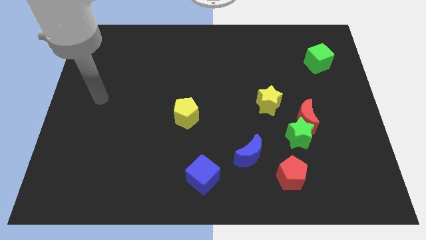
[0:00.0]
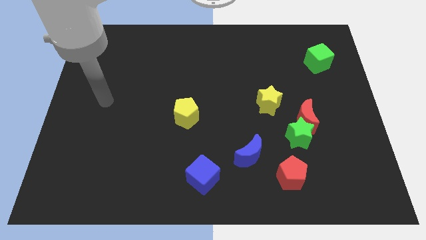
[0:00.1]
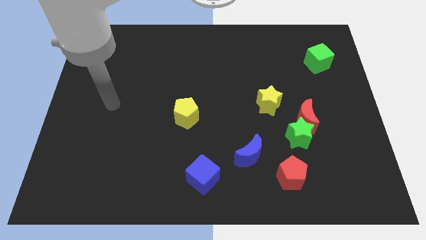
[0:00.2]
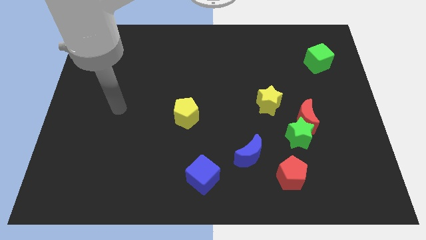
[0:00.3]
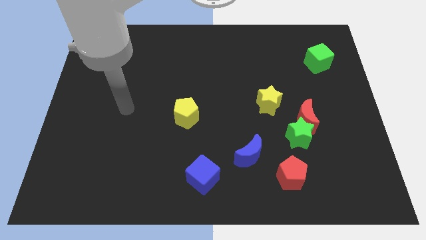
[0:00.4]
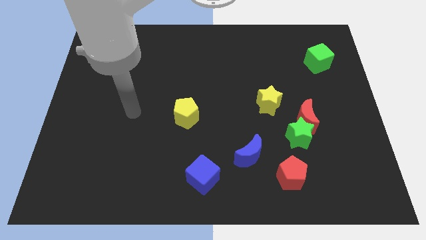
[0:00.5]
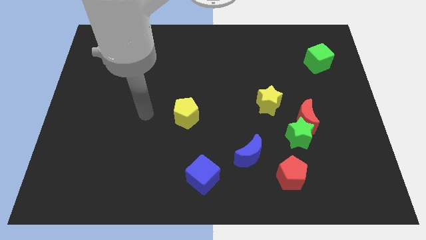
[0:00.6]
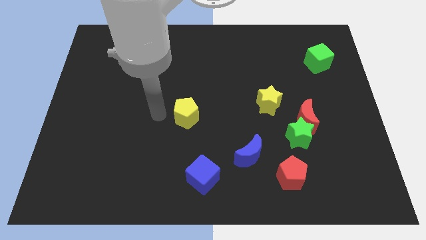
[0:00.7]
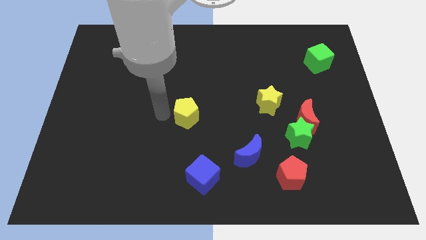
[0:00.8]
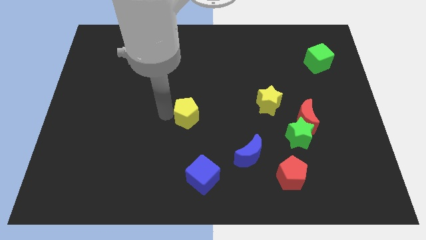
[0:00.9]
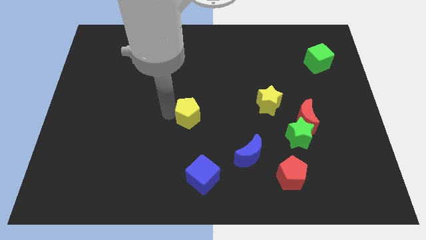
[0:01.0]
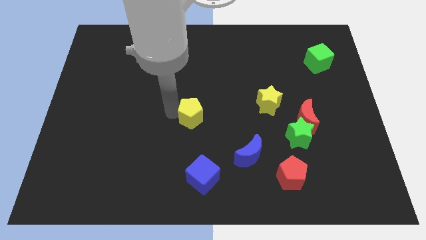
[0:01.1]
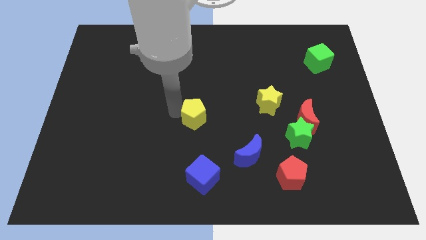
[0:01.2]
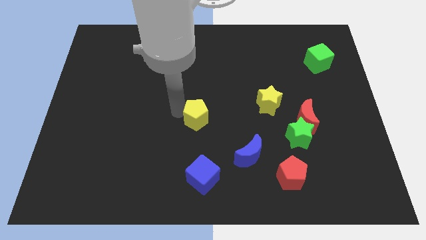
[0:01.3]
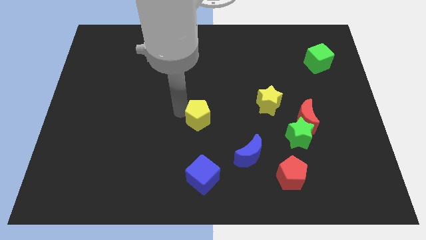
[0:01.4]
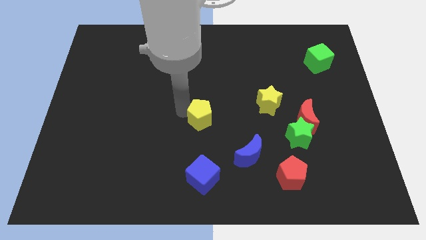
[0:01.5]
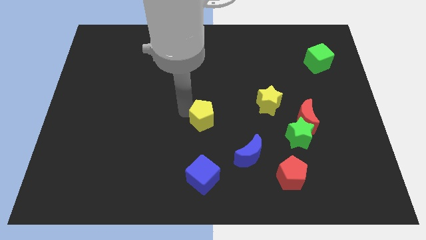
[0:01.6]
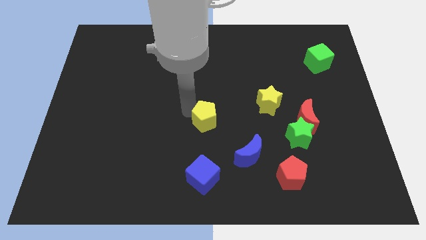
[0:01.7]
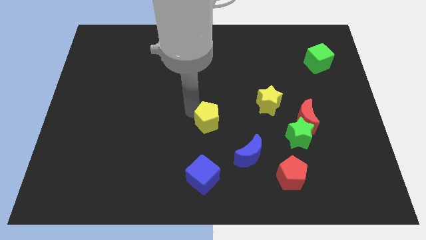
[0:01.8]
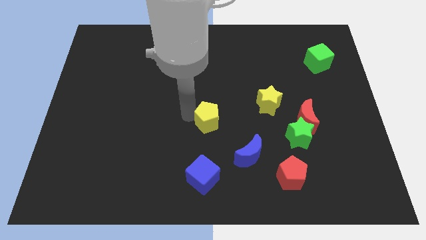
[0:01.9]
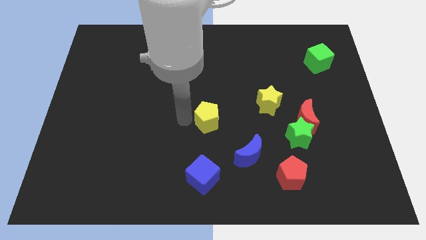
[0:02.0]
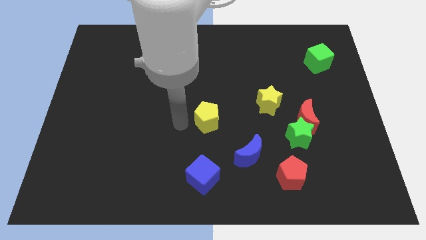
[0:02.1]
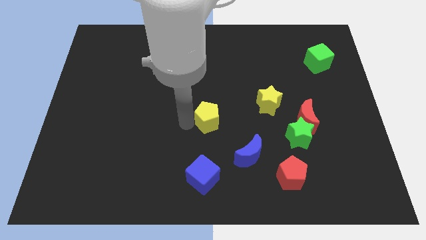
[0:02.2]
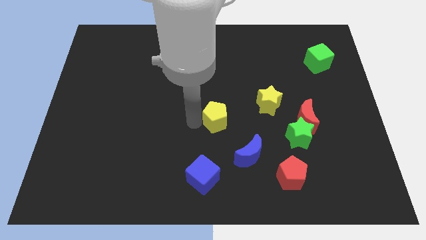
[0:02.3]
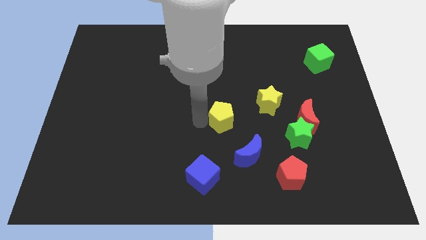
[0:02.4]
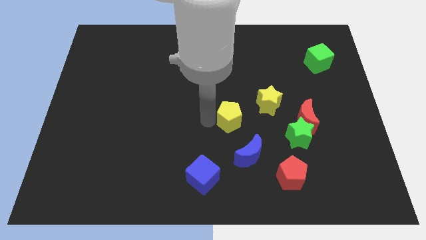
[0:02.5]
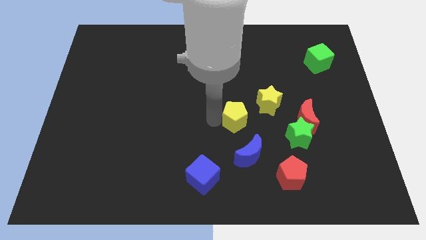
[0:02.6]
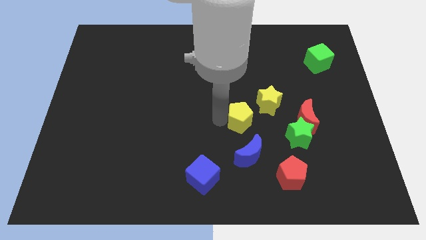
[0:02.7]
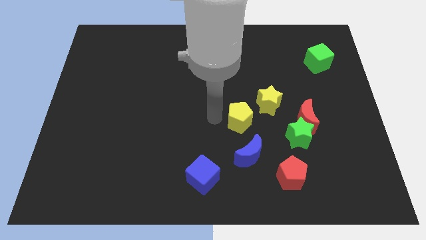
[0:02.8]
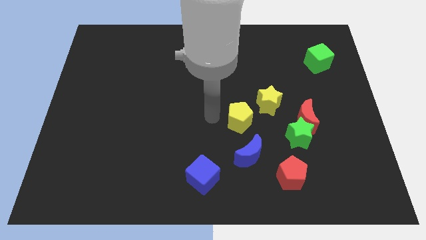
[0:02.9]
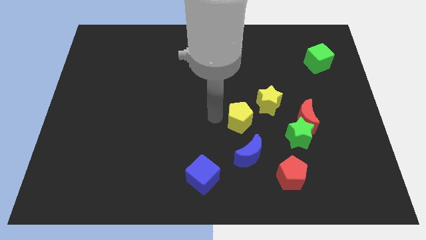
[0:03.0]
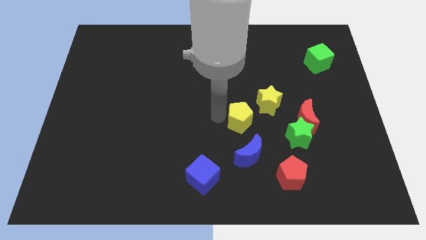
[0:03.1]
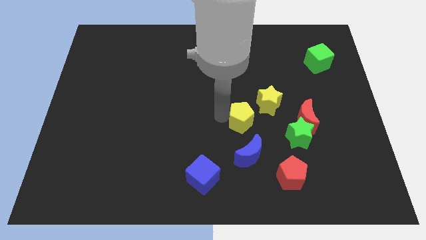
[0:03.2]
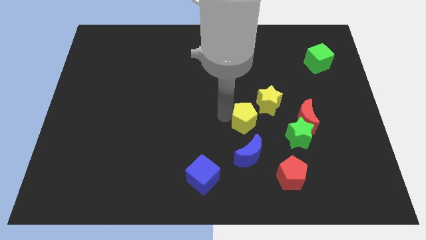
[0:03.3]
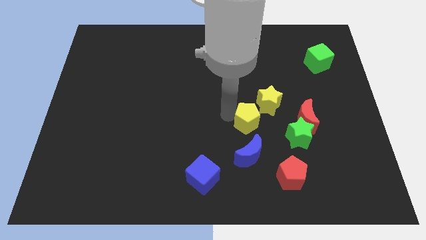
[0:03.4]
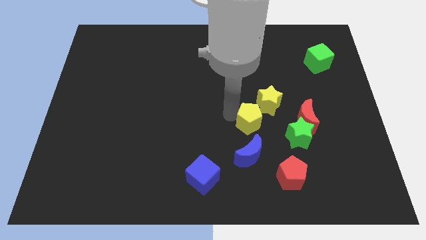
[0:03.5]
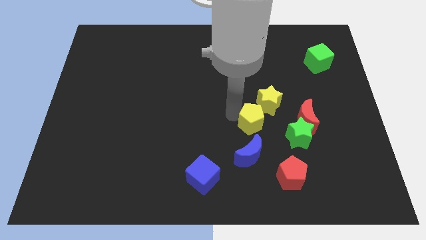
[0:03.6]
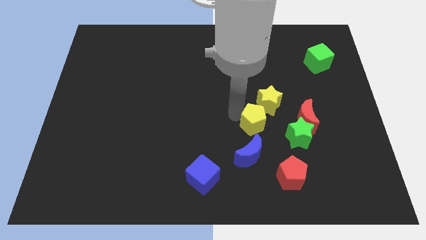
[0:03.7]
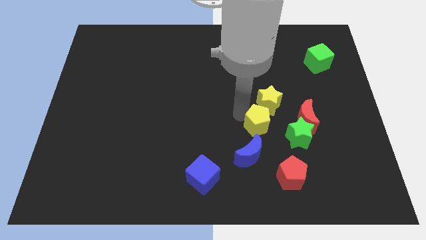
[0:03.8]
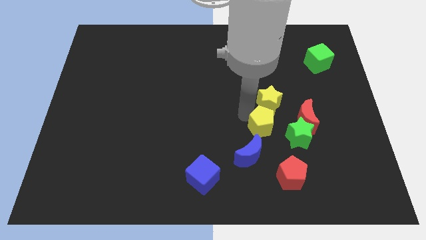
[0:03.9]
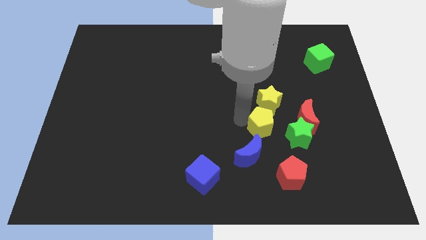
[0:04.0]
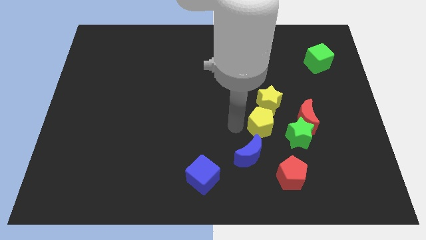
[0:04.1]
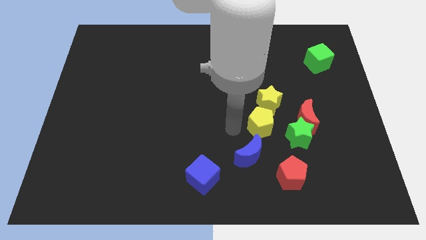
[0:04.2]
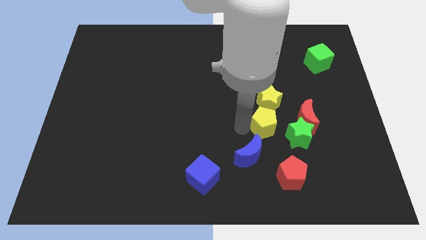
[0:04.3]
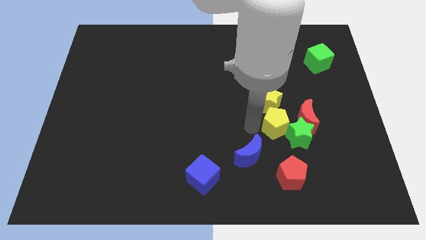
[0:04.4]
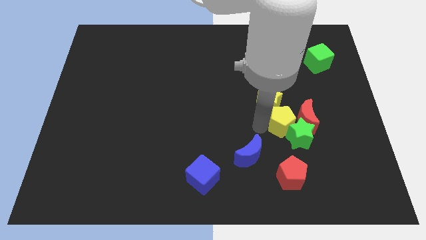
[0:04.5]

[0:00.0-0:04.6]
slide the yellow pentagon next to the red moon

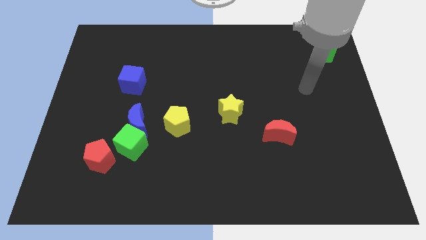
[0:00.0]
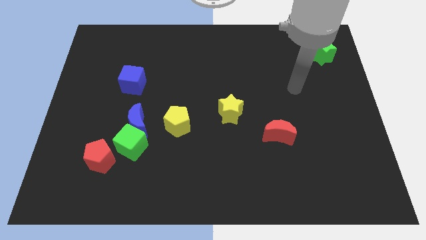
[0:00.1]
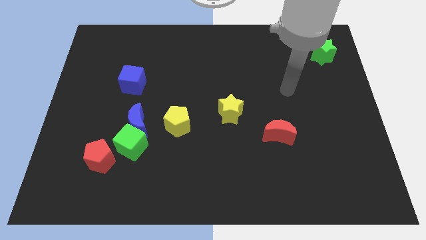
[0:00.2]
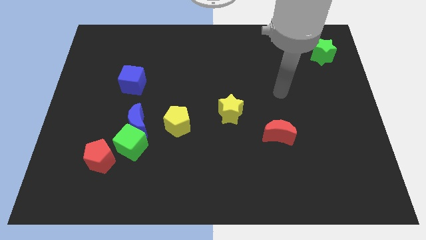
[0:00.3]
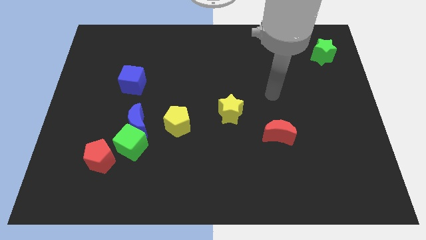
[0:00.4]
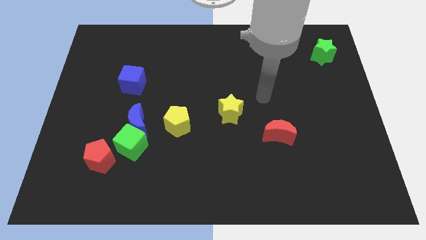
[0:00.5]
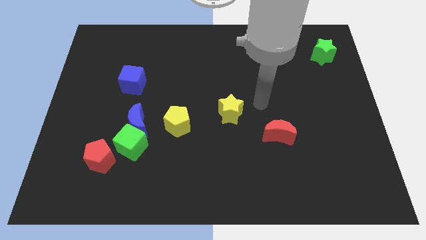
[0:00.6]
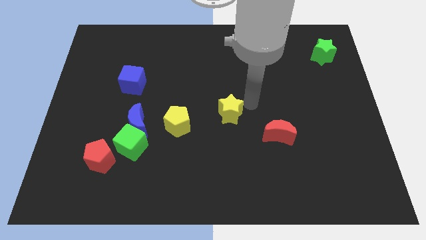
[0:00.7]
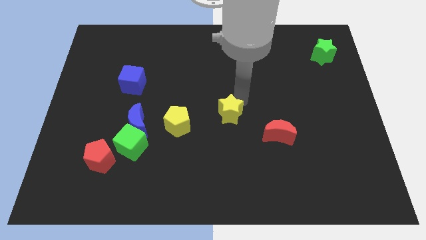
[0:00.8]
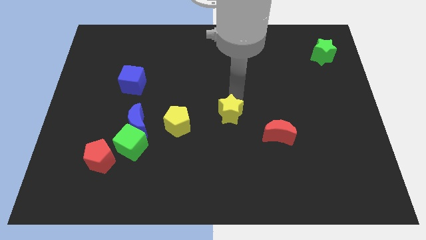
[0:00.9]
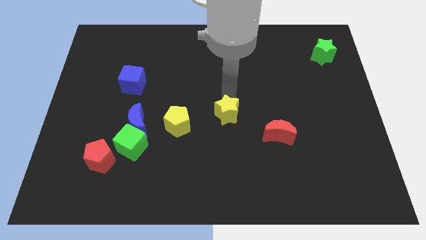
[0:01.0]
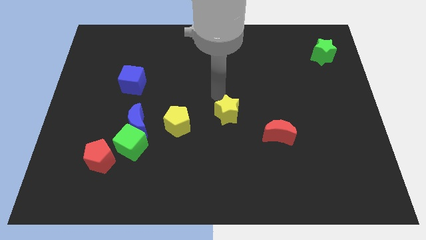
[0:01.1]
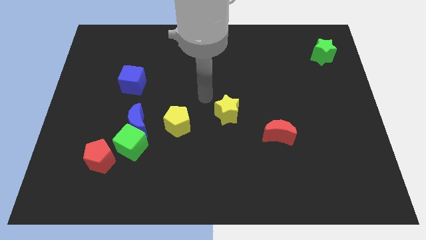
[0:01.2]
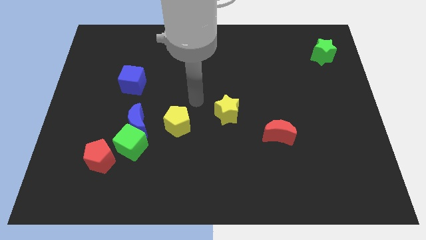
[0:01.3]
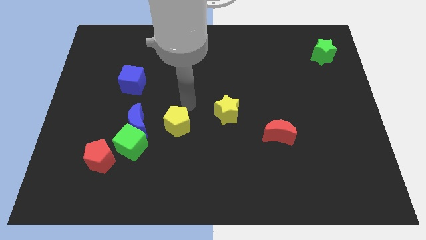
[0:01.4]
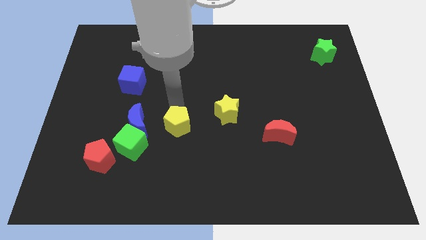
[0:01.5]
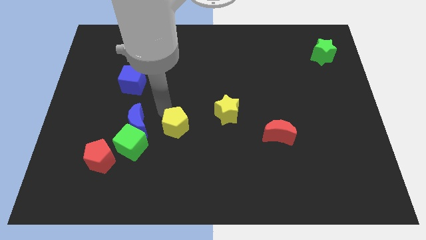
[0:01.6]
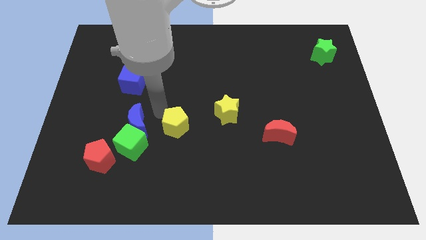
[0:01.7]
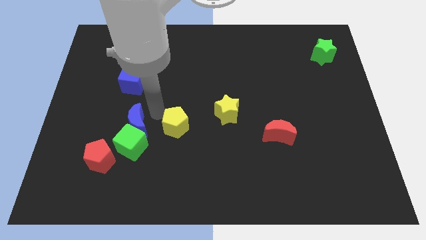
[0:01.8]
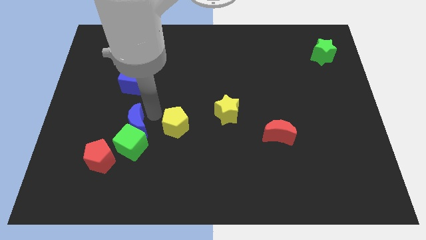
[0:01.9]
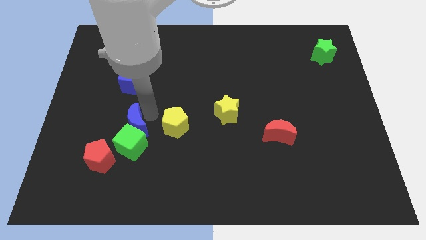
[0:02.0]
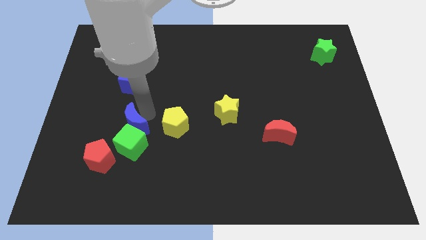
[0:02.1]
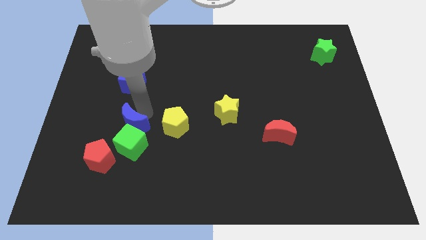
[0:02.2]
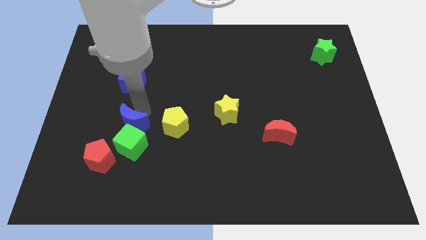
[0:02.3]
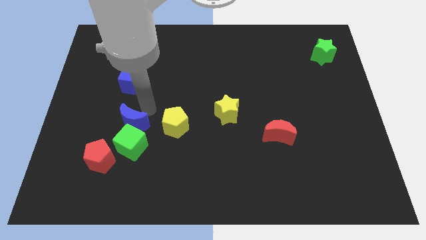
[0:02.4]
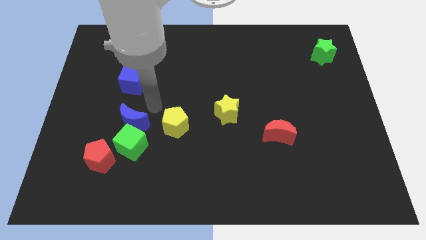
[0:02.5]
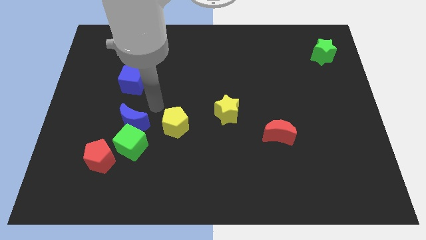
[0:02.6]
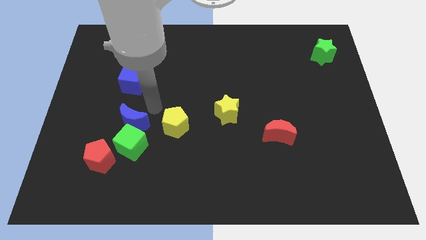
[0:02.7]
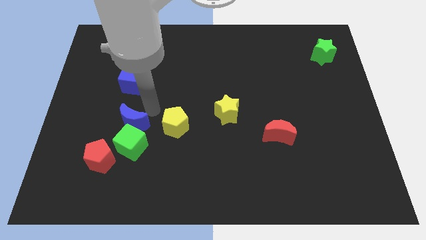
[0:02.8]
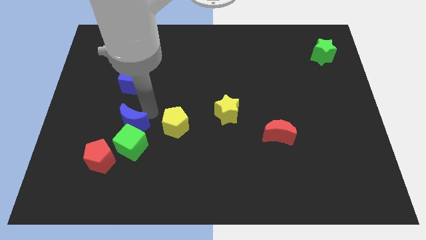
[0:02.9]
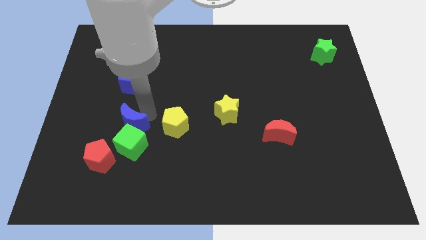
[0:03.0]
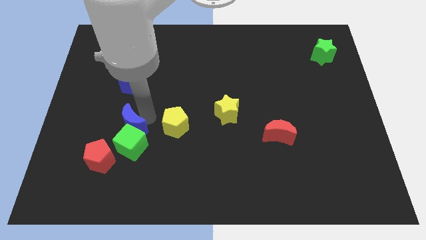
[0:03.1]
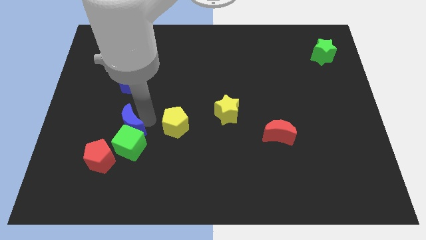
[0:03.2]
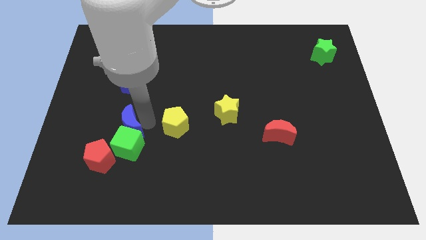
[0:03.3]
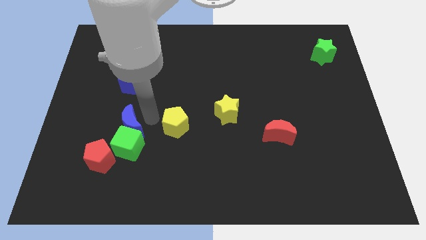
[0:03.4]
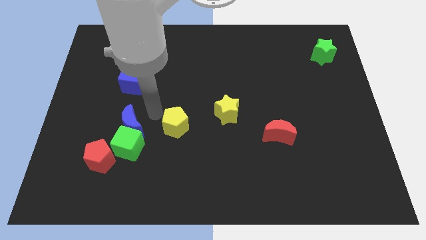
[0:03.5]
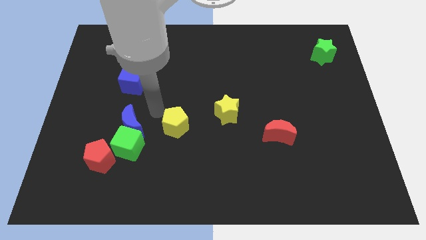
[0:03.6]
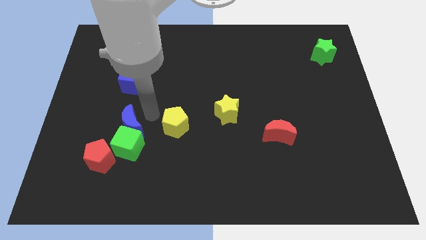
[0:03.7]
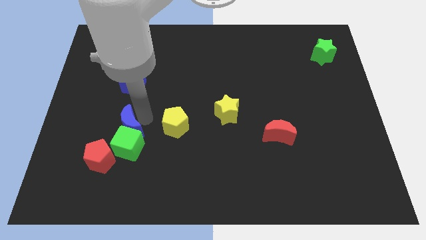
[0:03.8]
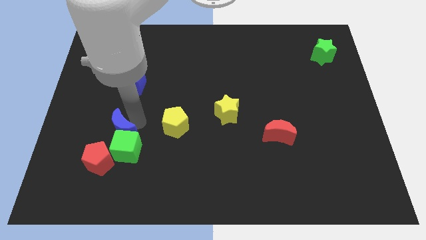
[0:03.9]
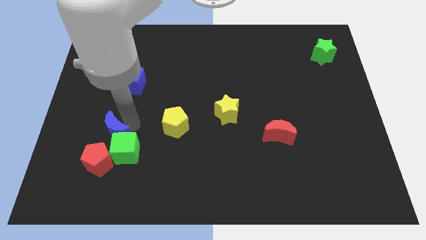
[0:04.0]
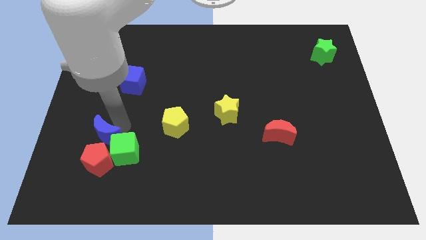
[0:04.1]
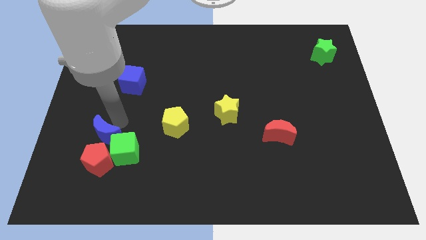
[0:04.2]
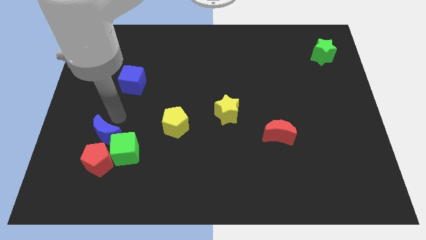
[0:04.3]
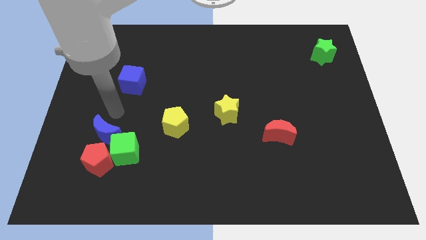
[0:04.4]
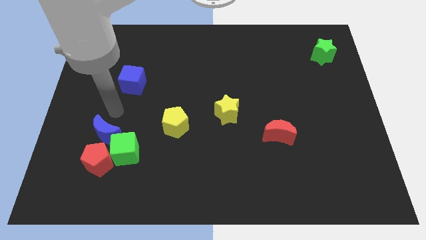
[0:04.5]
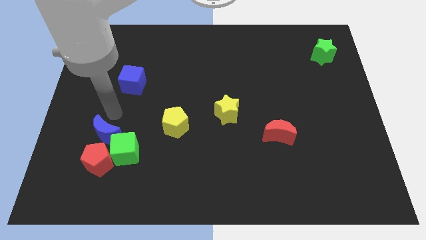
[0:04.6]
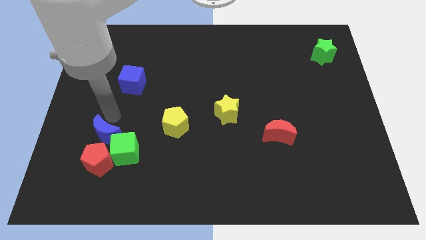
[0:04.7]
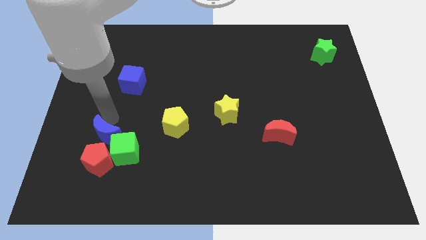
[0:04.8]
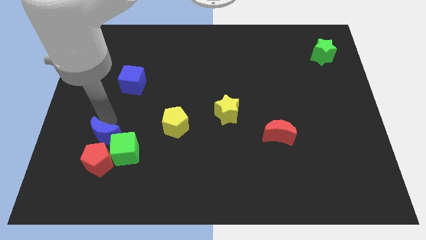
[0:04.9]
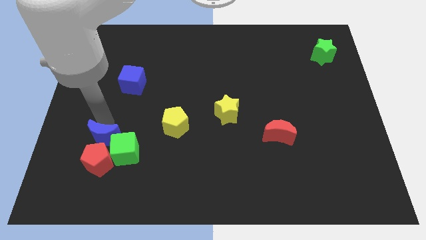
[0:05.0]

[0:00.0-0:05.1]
slide the blue moon next to the red pentagon
